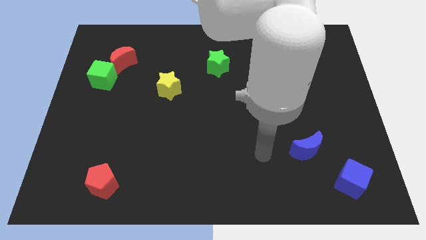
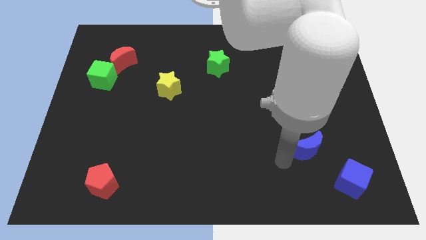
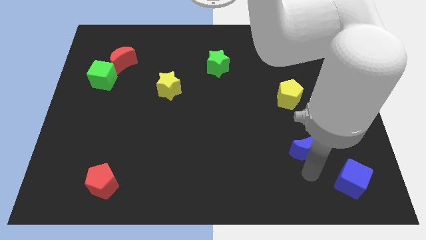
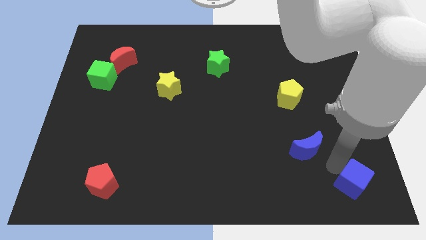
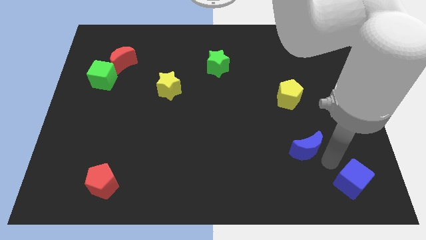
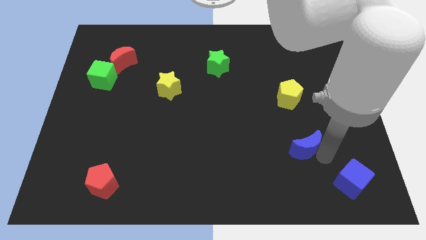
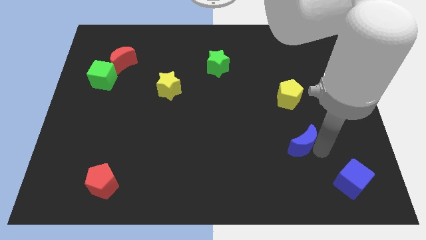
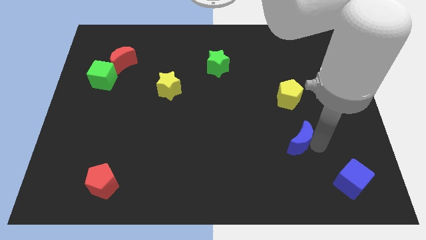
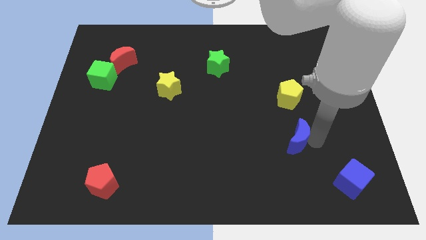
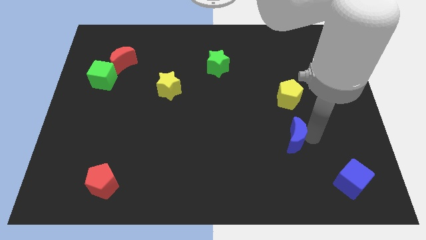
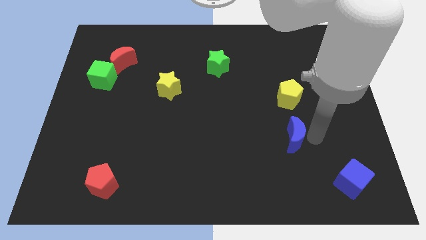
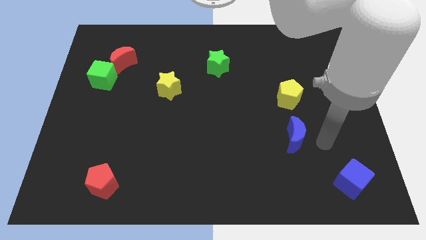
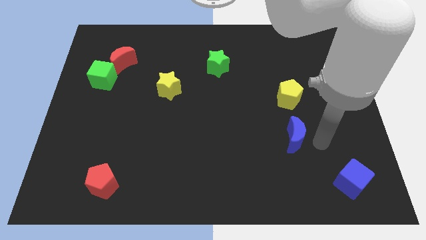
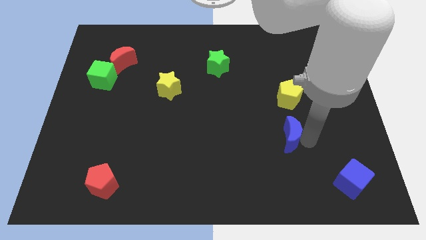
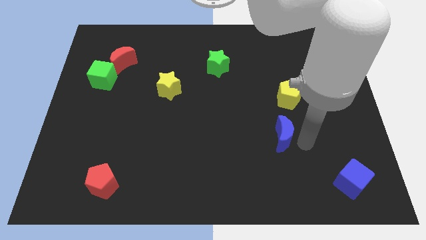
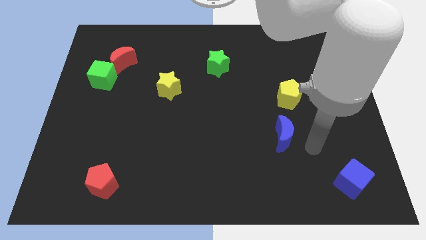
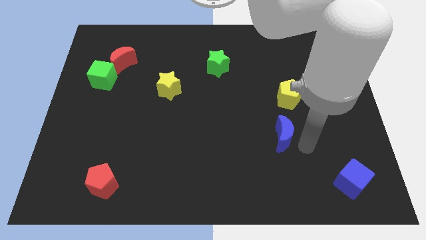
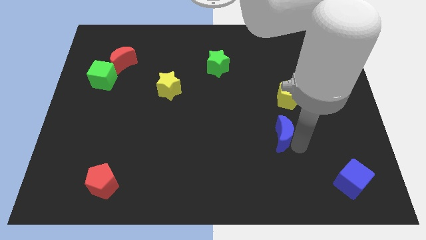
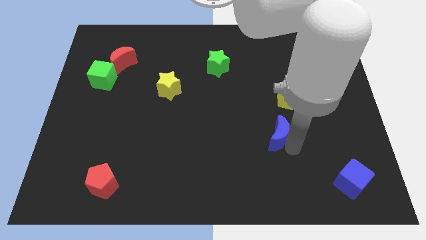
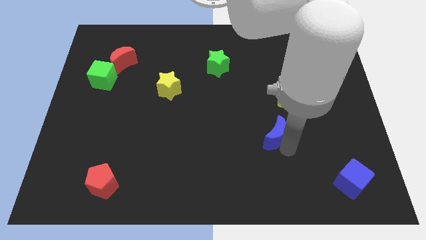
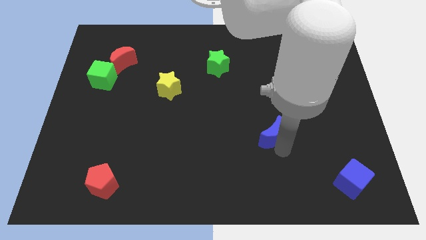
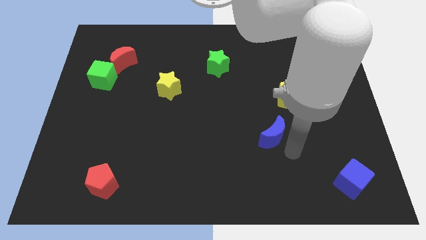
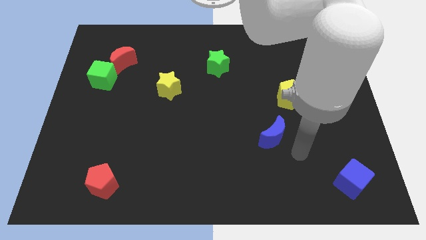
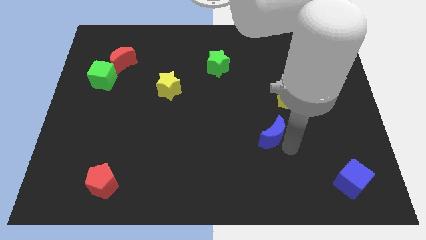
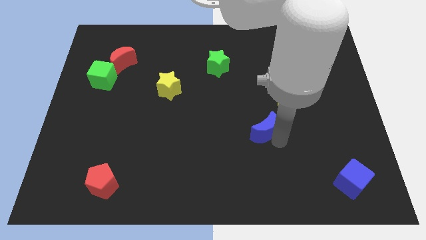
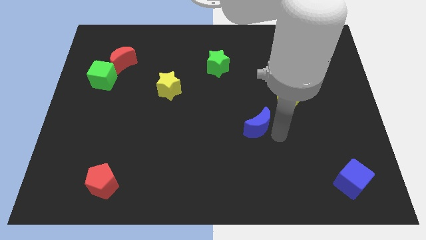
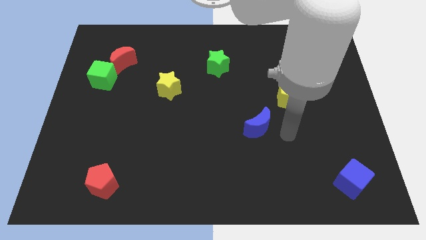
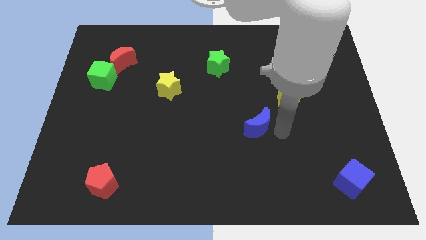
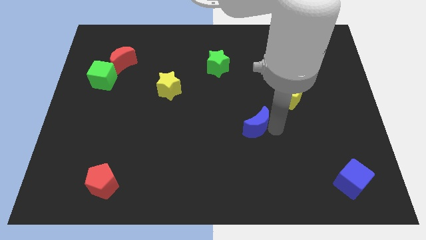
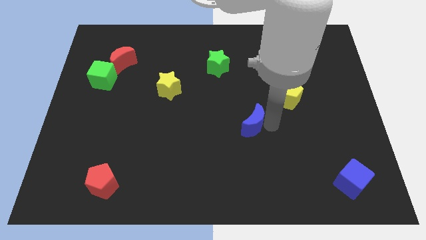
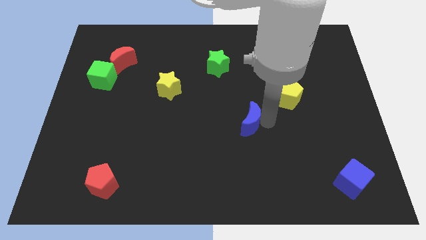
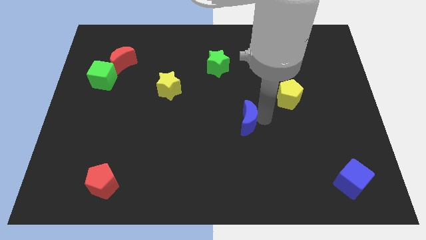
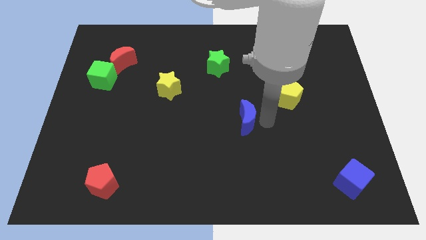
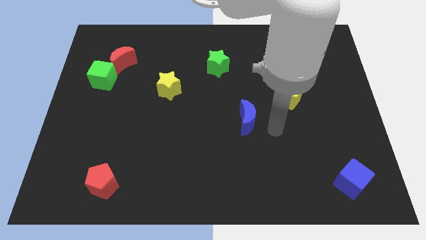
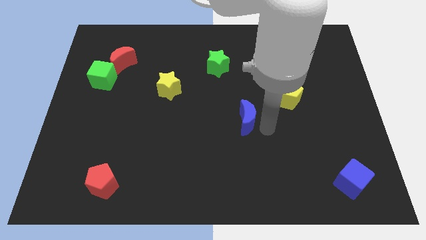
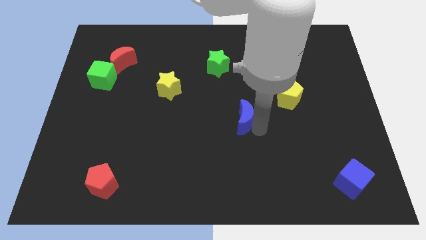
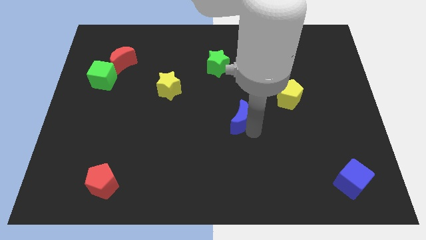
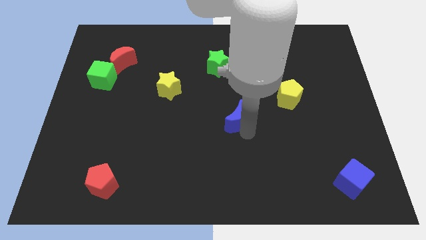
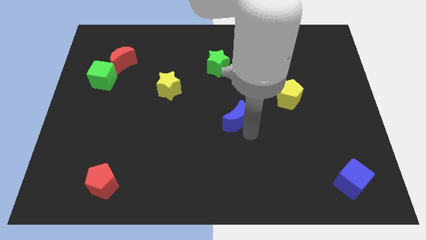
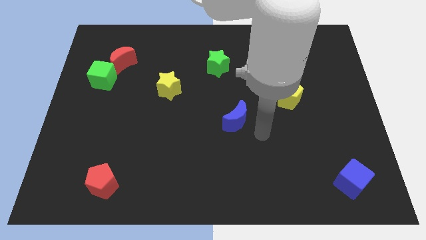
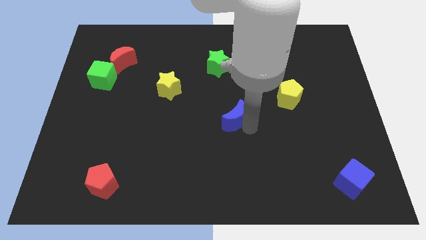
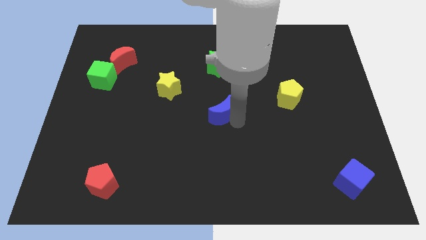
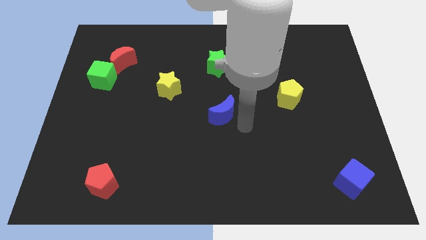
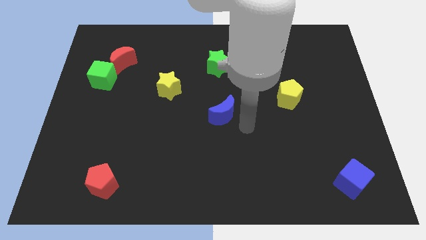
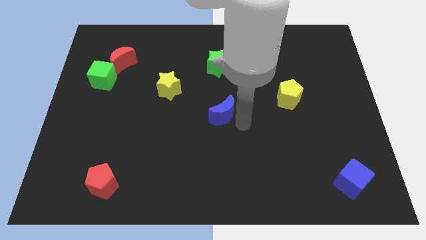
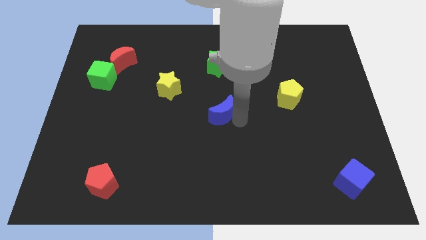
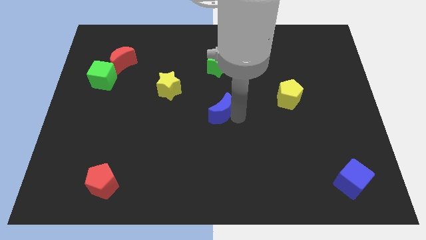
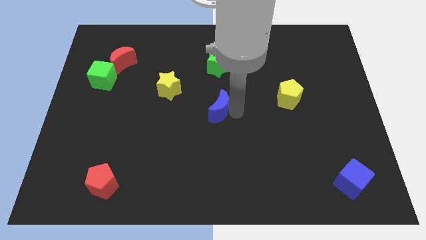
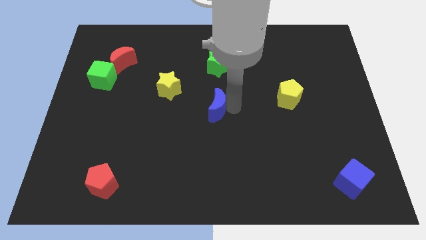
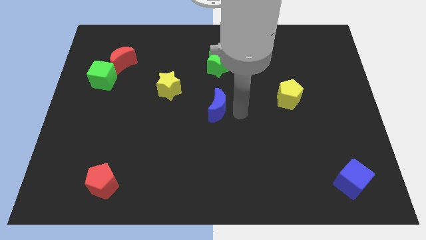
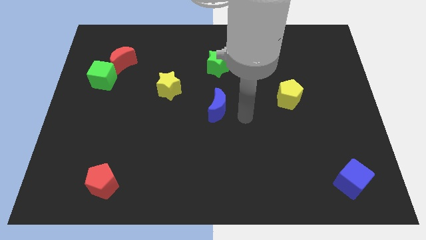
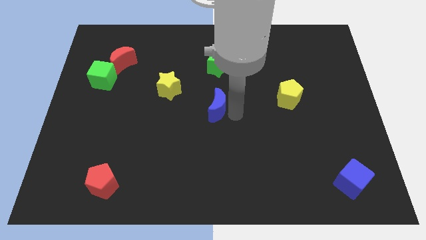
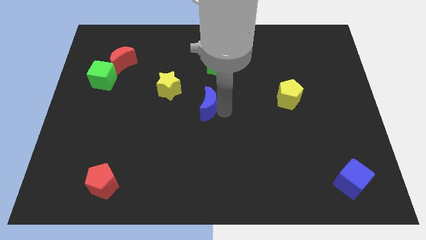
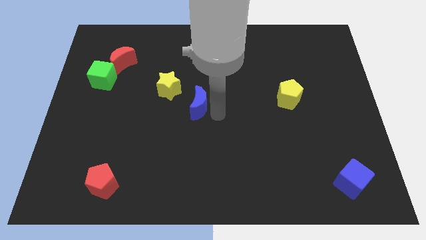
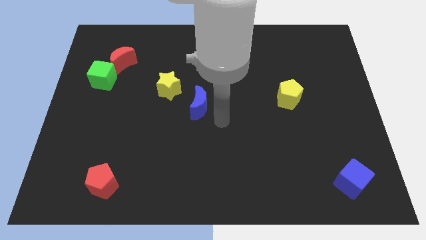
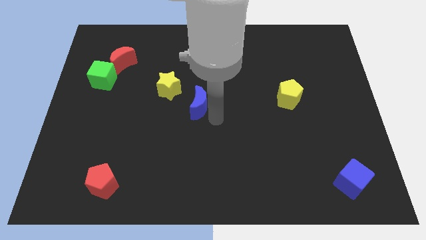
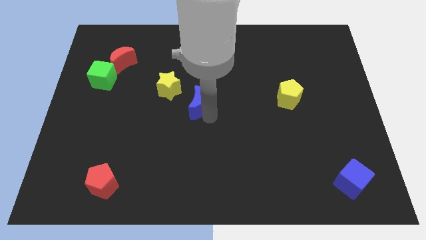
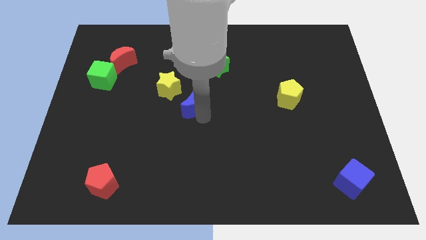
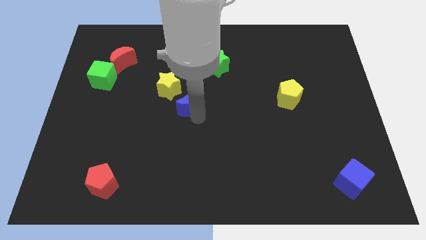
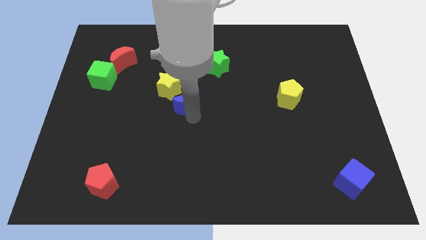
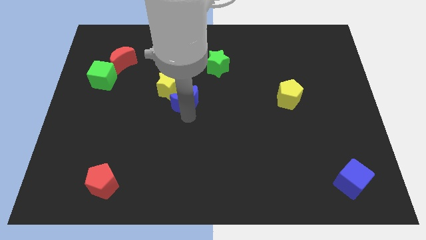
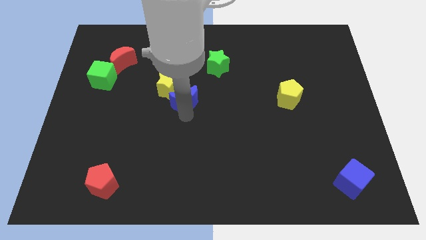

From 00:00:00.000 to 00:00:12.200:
push the blue moon close to the yellow star

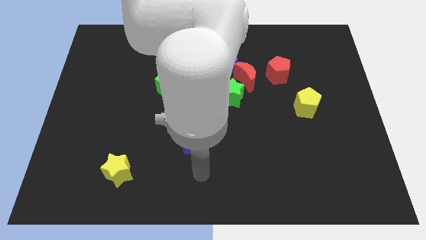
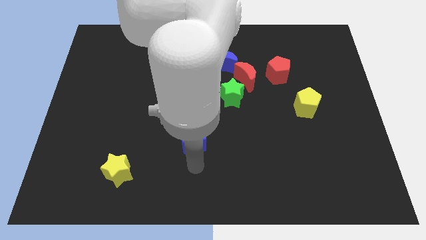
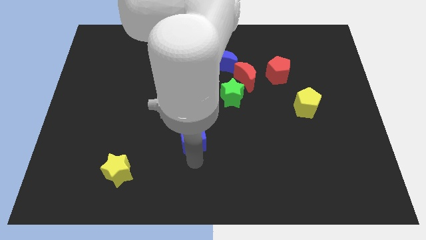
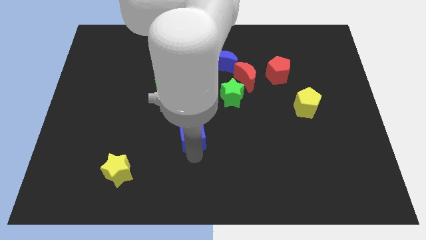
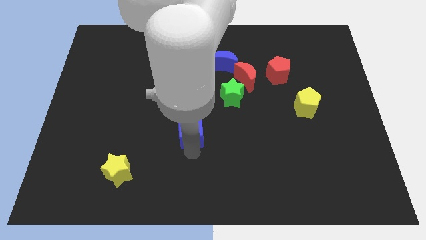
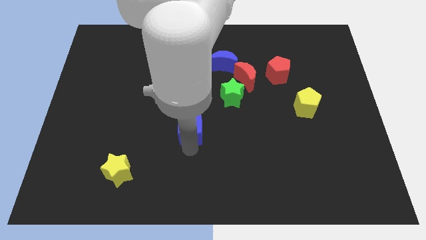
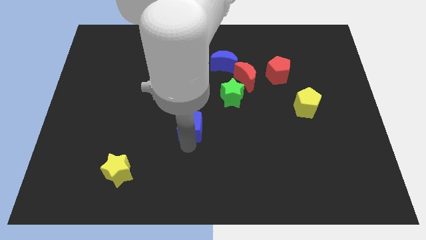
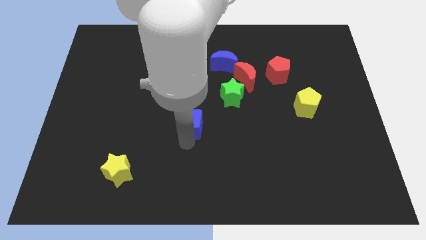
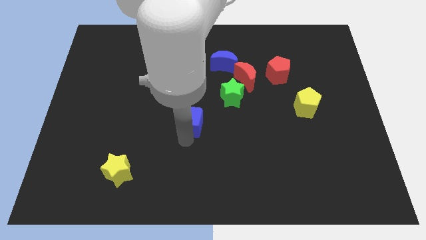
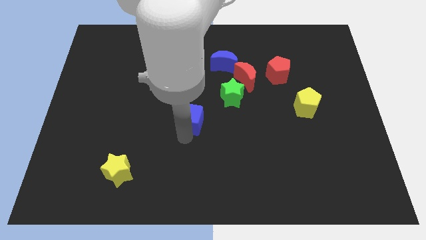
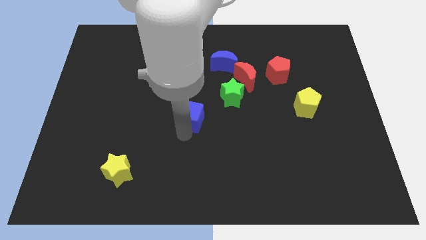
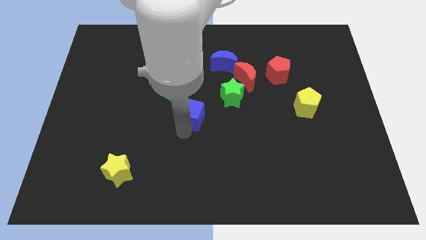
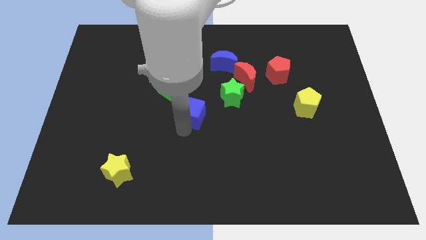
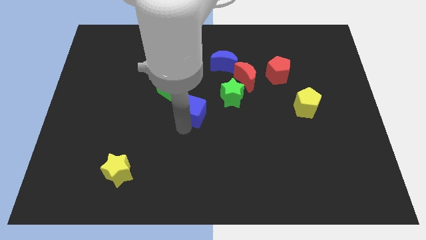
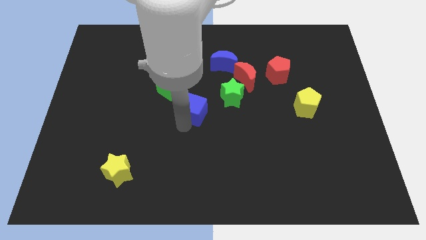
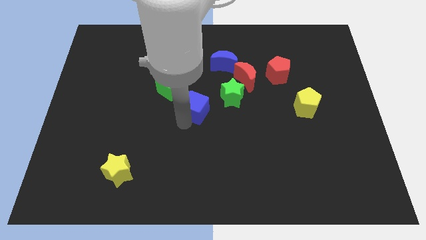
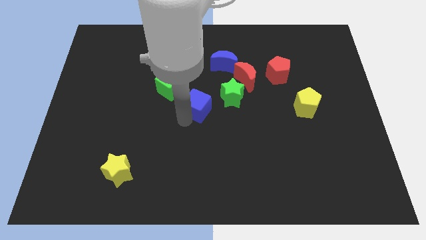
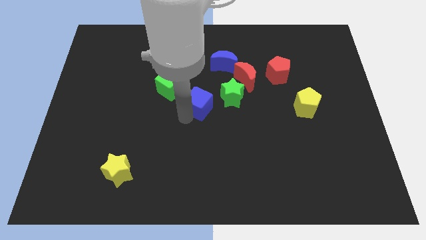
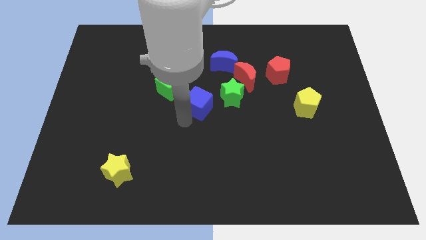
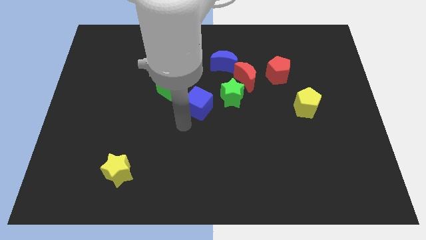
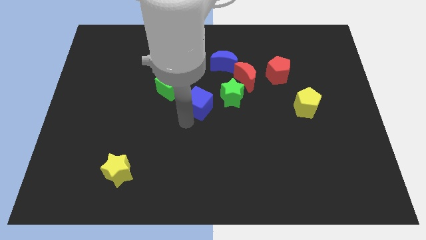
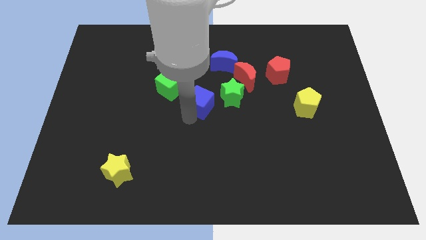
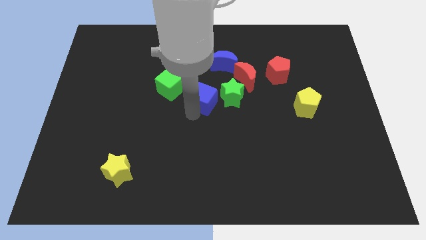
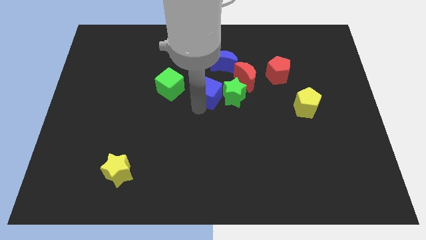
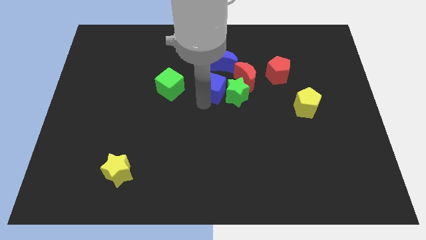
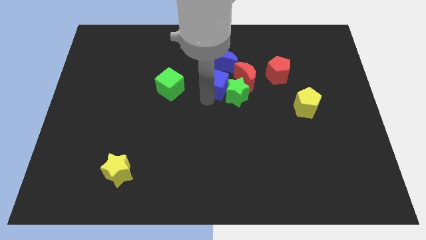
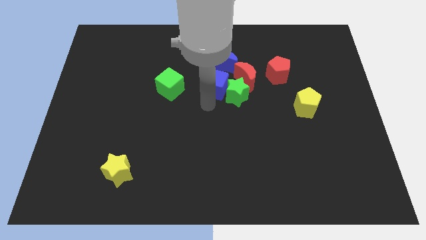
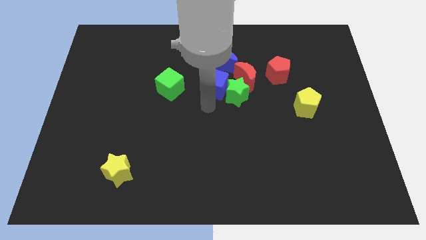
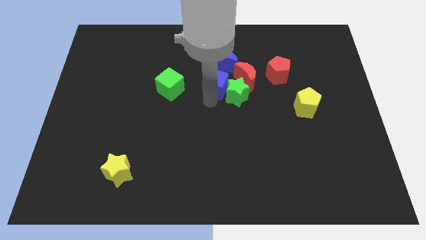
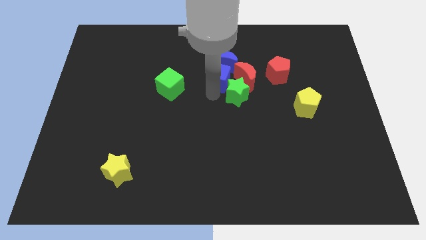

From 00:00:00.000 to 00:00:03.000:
put the blue cube next to the blue moon
